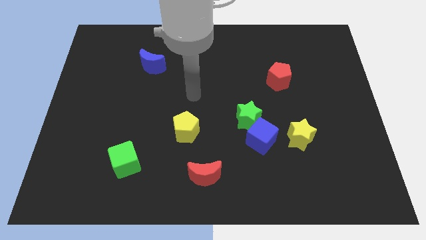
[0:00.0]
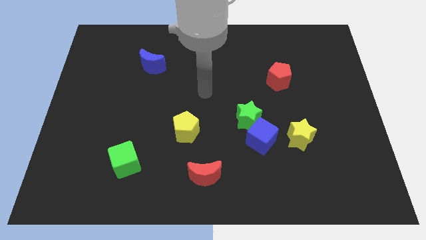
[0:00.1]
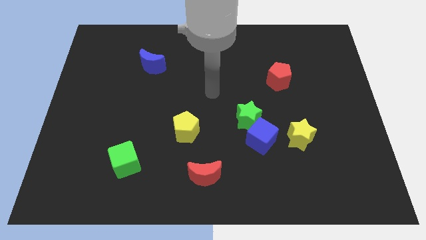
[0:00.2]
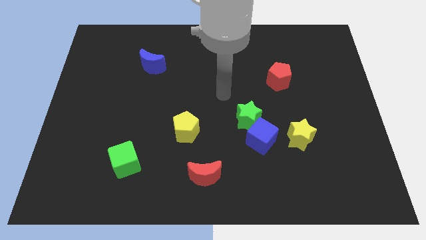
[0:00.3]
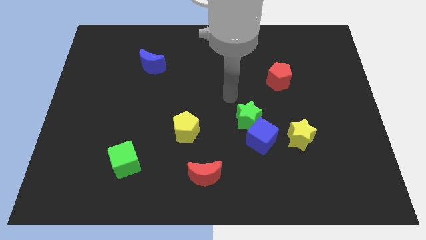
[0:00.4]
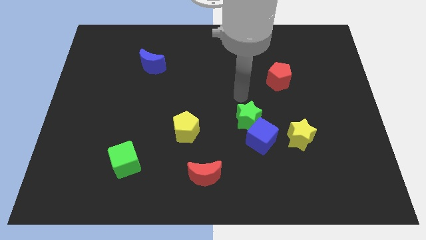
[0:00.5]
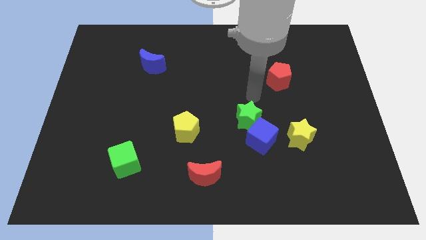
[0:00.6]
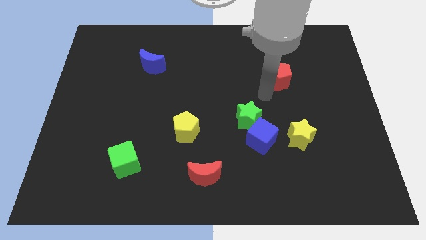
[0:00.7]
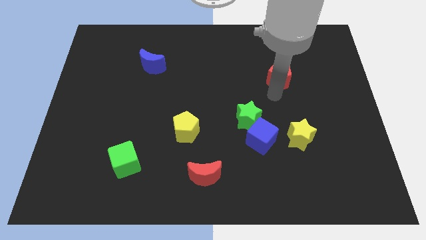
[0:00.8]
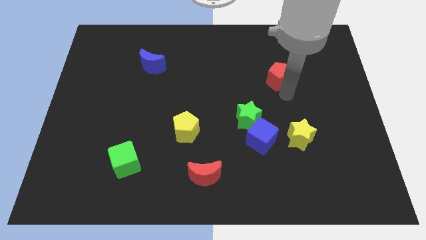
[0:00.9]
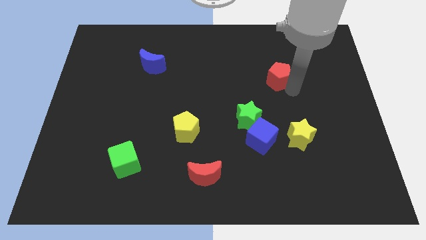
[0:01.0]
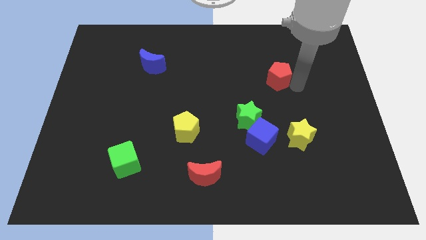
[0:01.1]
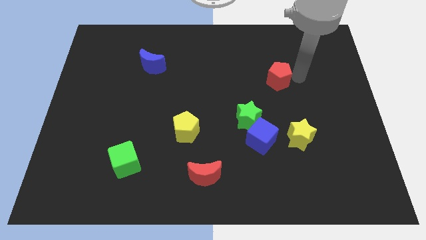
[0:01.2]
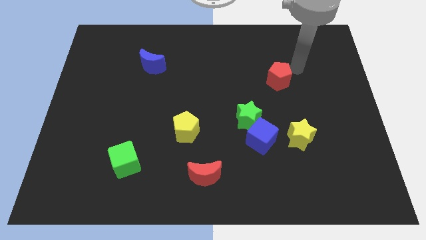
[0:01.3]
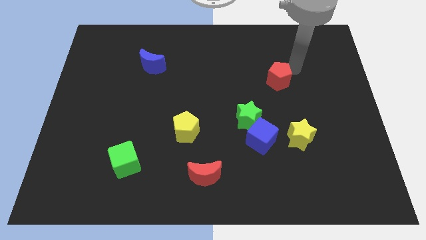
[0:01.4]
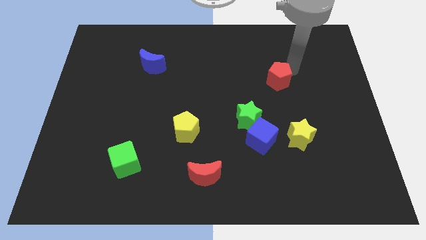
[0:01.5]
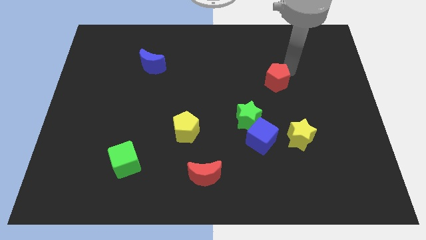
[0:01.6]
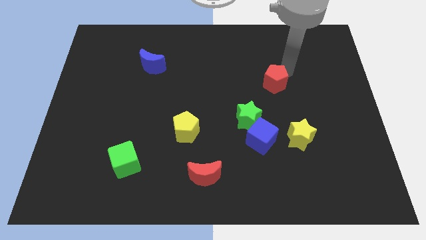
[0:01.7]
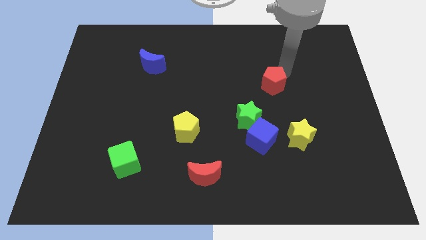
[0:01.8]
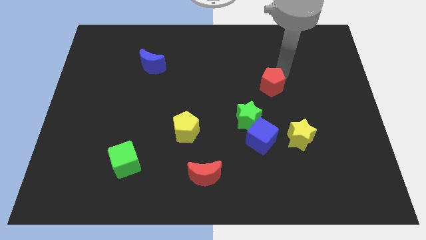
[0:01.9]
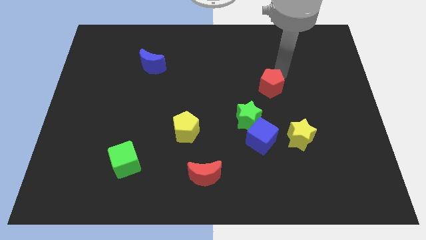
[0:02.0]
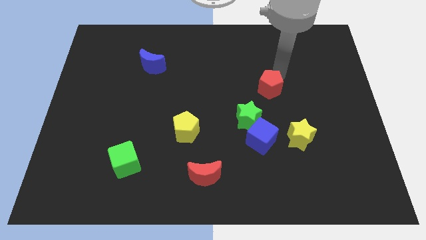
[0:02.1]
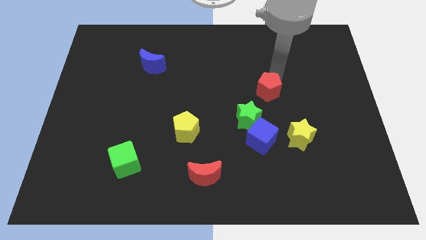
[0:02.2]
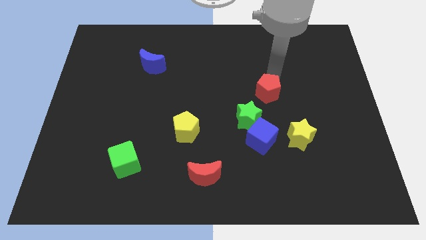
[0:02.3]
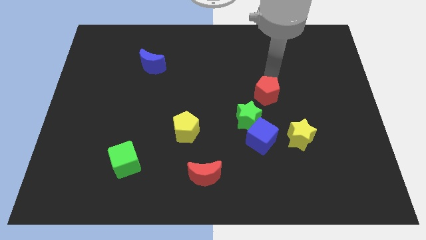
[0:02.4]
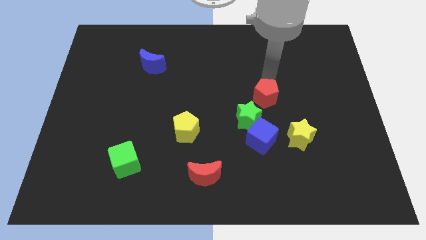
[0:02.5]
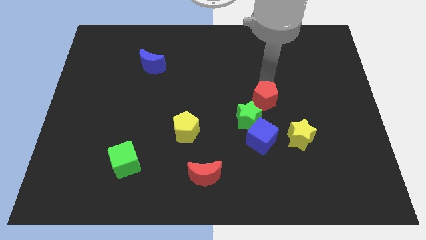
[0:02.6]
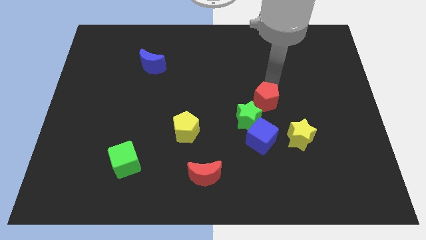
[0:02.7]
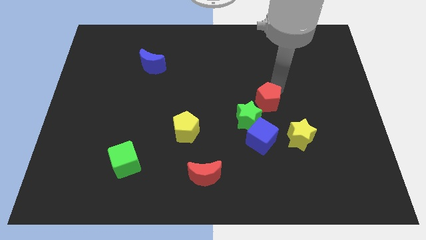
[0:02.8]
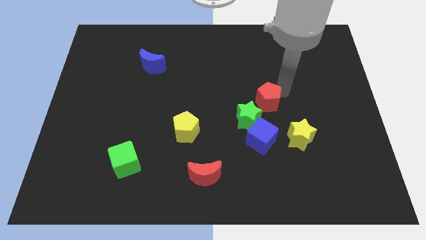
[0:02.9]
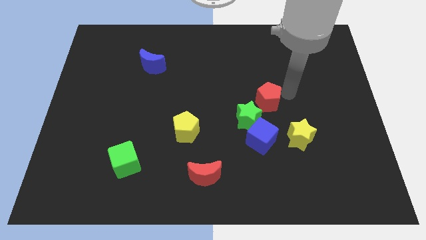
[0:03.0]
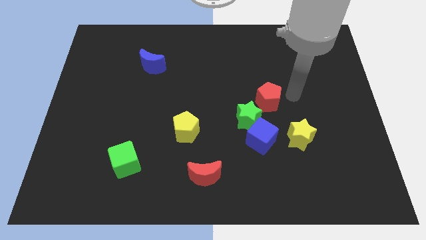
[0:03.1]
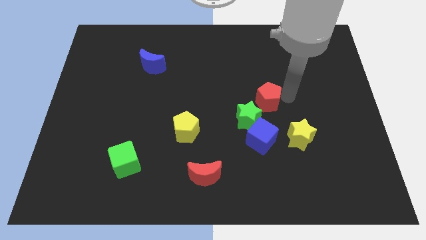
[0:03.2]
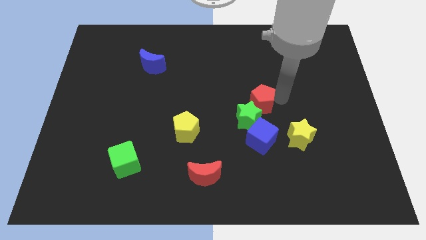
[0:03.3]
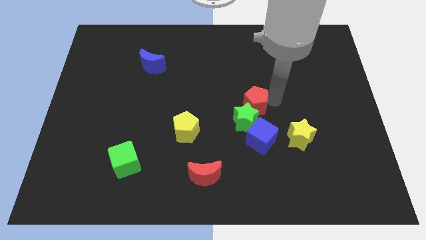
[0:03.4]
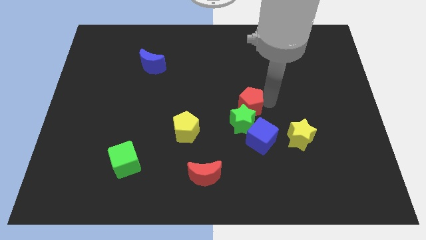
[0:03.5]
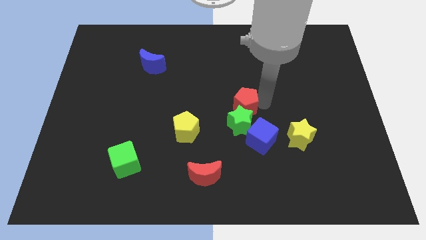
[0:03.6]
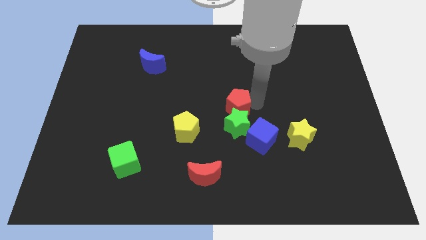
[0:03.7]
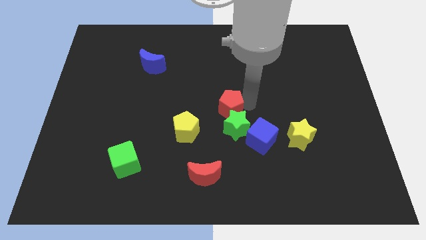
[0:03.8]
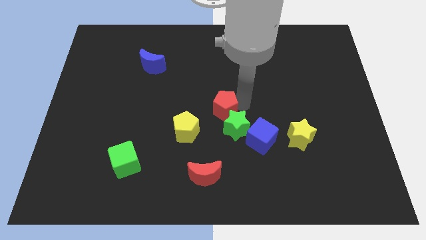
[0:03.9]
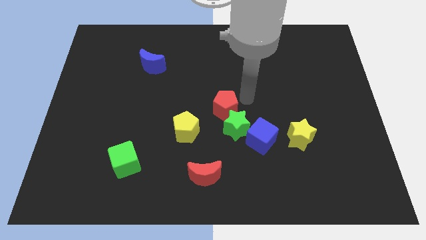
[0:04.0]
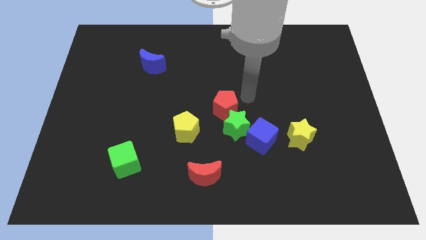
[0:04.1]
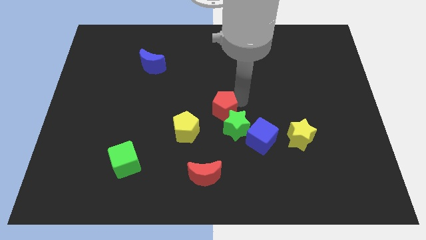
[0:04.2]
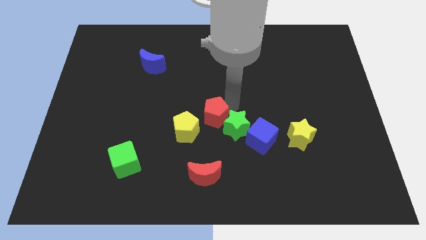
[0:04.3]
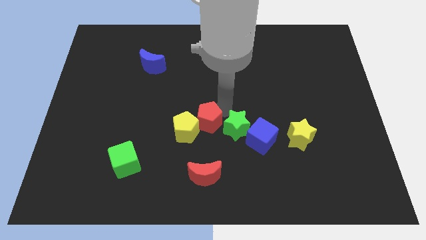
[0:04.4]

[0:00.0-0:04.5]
put the red pentagon close to the yellow pentagon

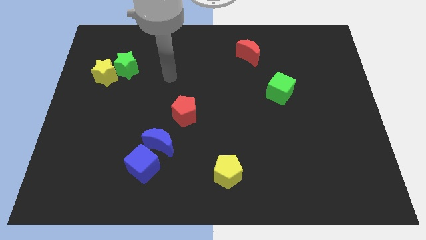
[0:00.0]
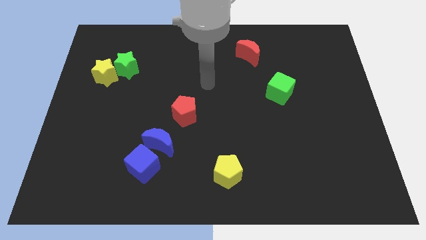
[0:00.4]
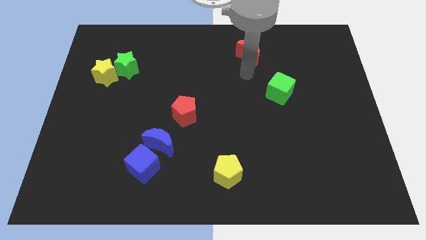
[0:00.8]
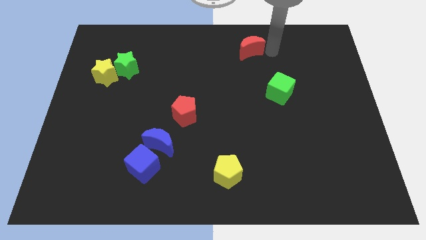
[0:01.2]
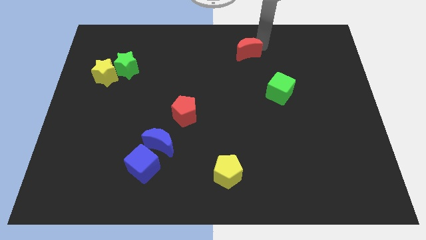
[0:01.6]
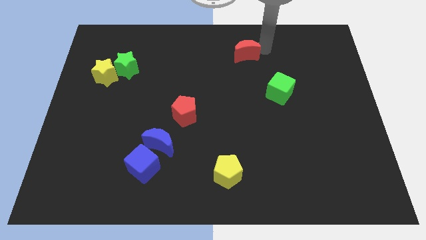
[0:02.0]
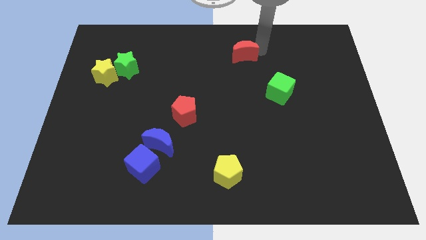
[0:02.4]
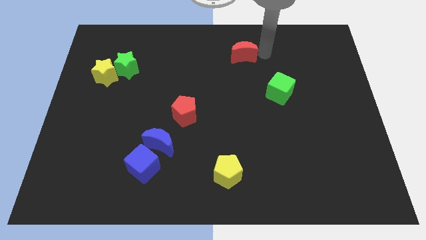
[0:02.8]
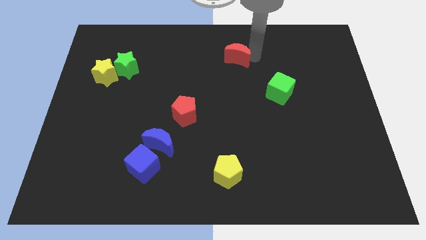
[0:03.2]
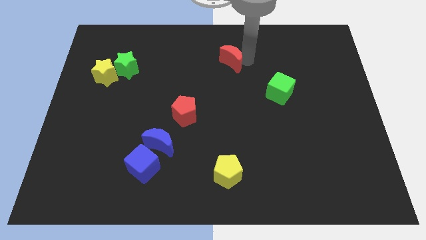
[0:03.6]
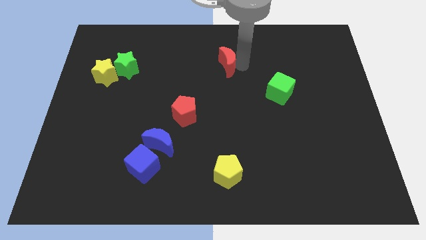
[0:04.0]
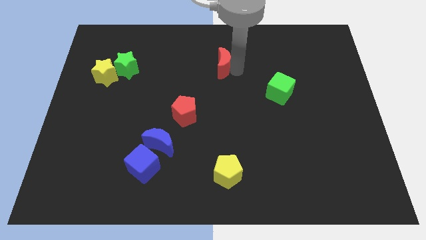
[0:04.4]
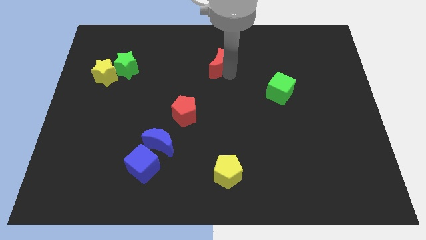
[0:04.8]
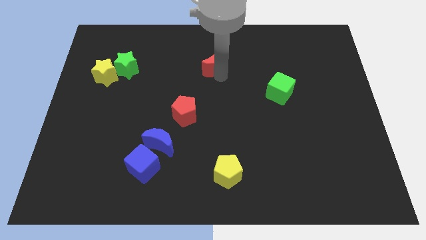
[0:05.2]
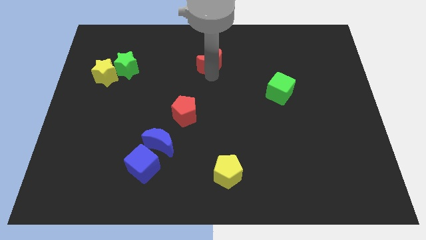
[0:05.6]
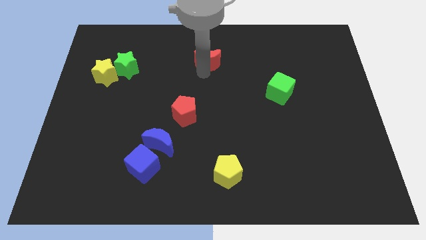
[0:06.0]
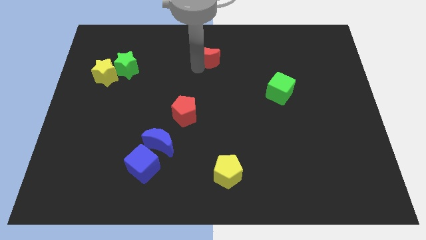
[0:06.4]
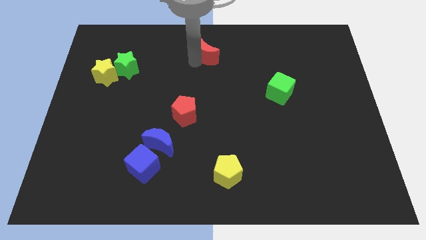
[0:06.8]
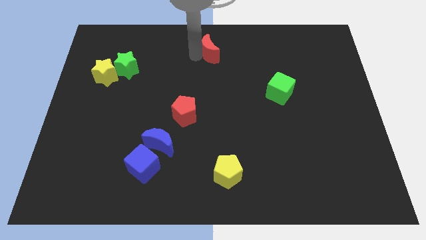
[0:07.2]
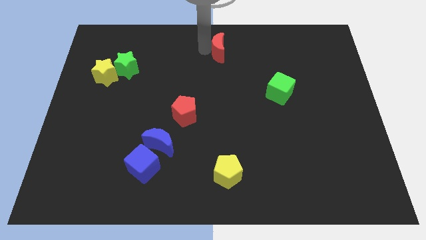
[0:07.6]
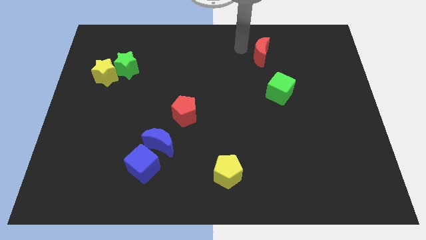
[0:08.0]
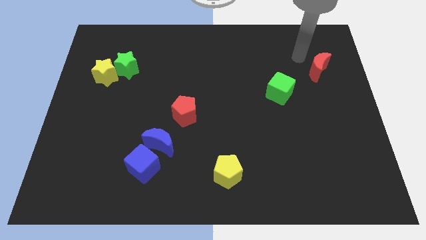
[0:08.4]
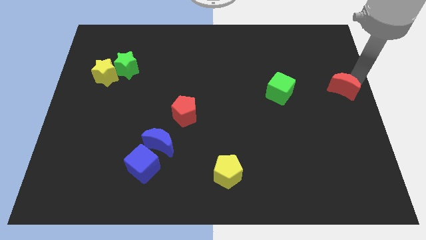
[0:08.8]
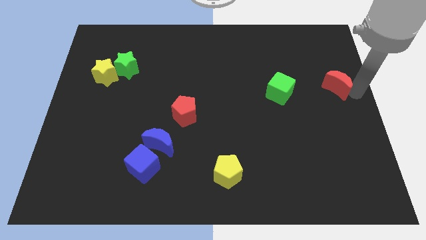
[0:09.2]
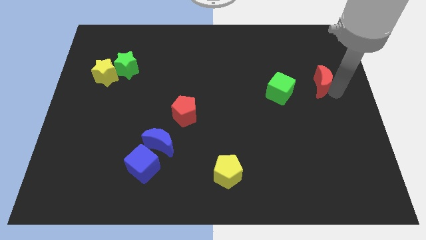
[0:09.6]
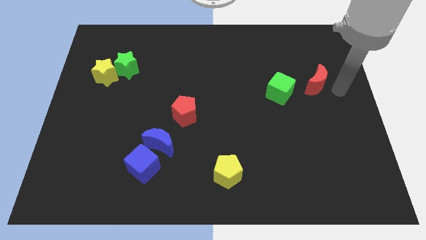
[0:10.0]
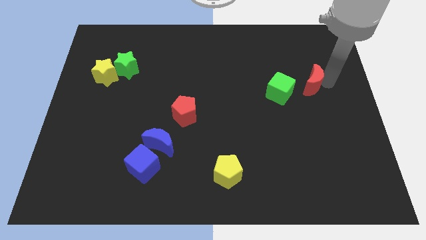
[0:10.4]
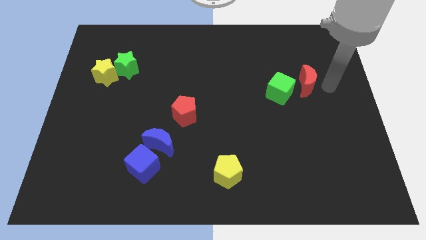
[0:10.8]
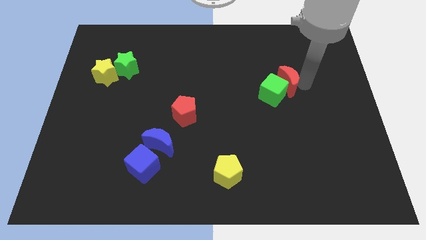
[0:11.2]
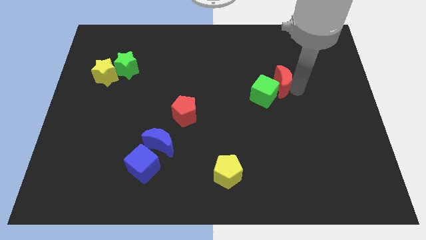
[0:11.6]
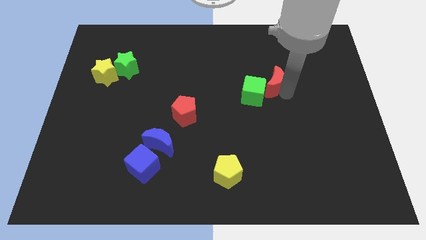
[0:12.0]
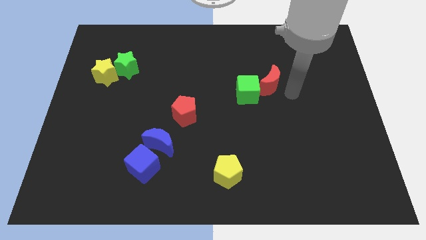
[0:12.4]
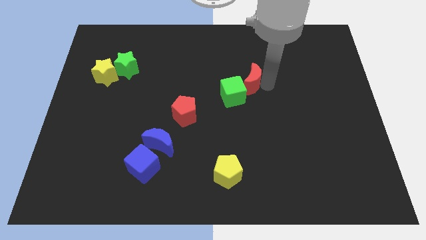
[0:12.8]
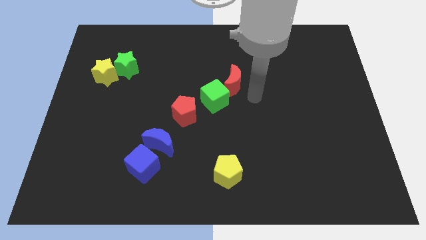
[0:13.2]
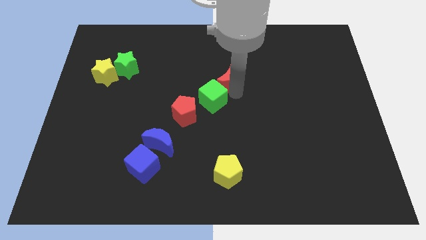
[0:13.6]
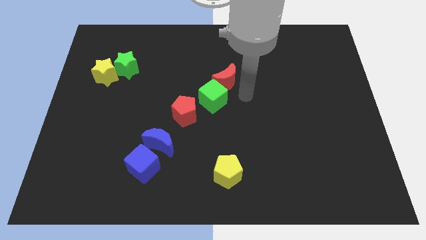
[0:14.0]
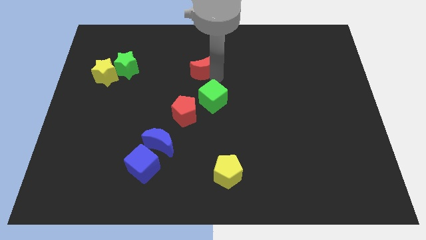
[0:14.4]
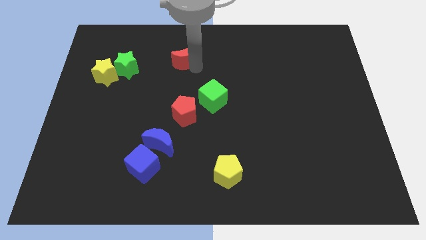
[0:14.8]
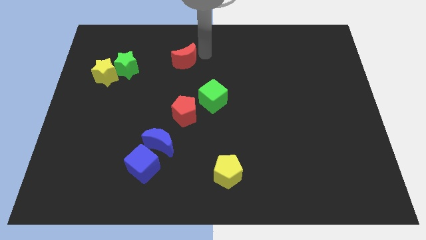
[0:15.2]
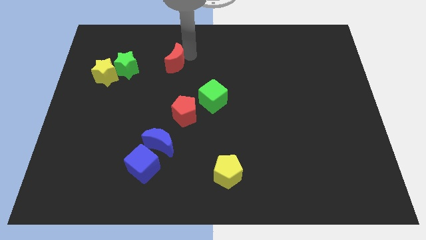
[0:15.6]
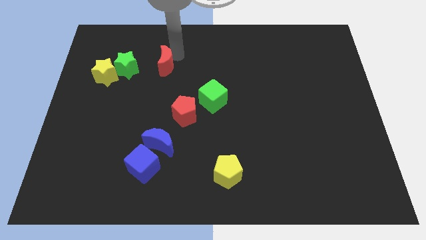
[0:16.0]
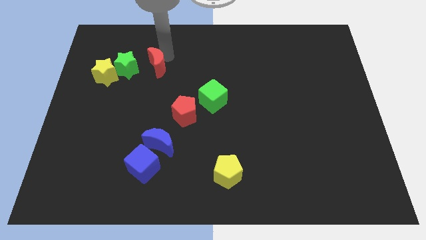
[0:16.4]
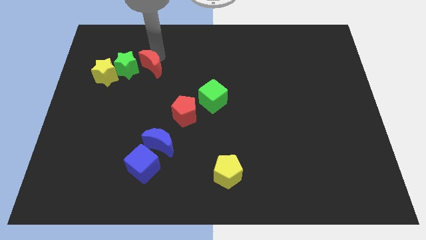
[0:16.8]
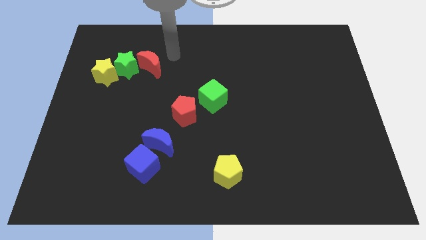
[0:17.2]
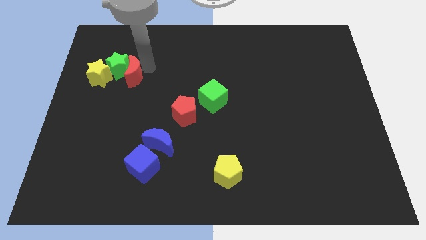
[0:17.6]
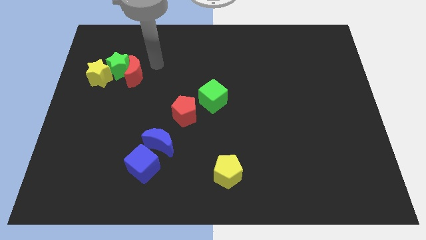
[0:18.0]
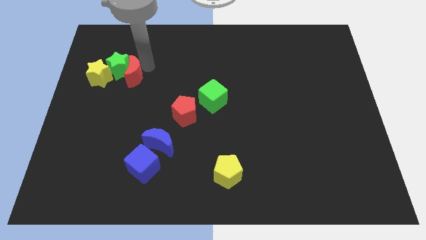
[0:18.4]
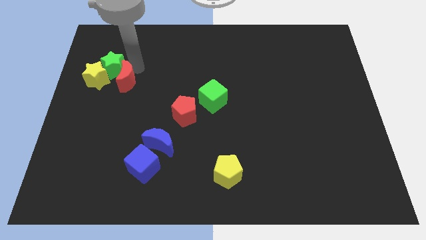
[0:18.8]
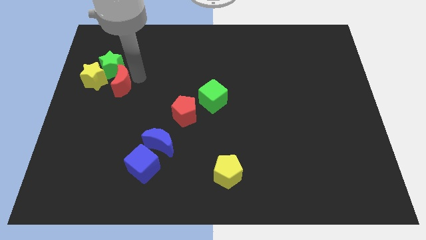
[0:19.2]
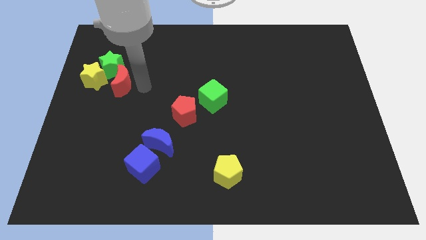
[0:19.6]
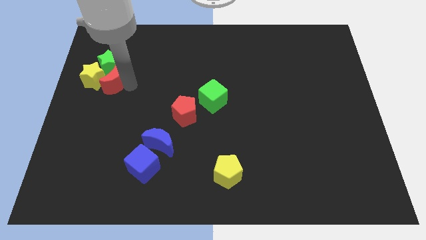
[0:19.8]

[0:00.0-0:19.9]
push the red moon close to the yellow star
